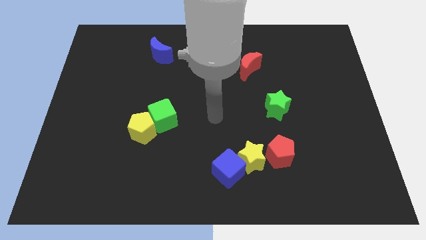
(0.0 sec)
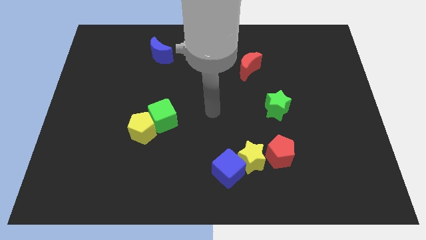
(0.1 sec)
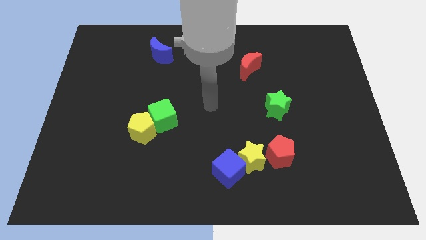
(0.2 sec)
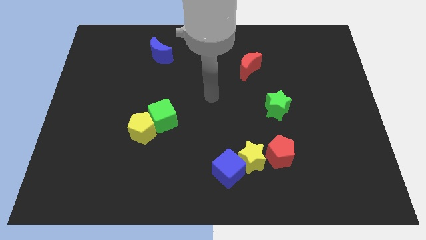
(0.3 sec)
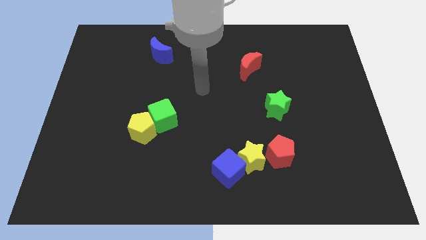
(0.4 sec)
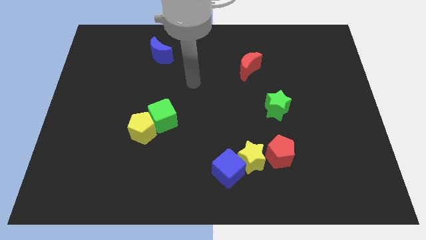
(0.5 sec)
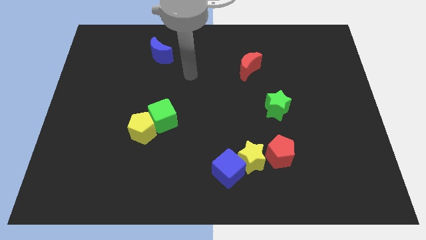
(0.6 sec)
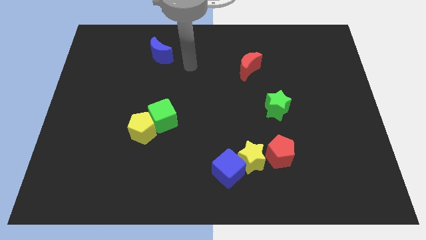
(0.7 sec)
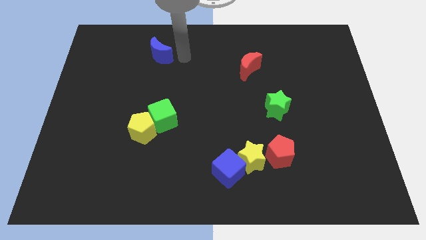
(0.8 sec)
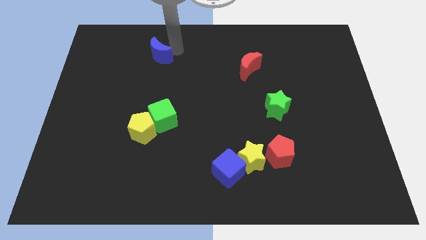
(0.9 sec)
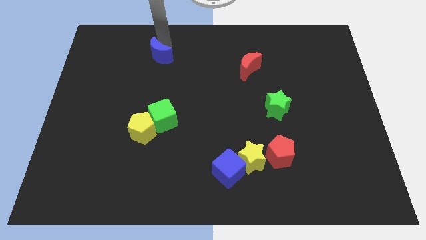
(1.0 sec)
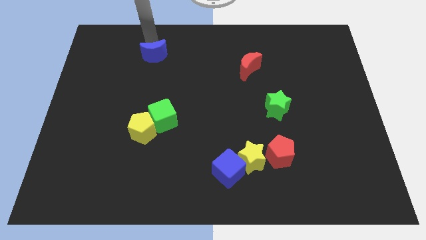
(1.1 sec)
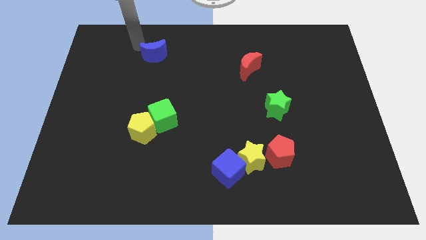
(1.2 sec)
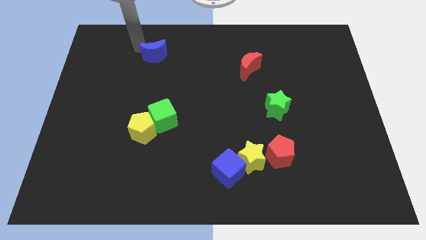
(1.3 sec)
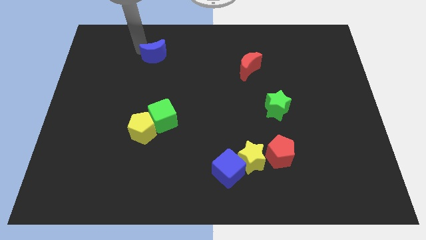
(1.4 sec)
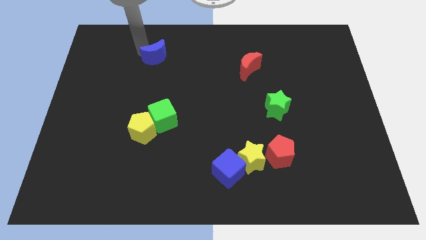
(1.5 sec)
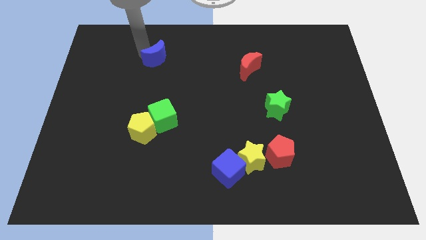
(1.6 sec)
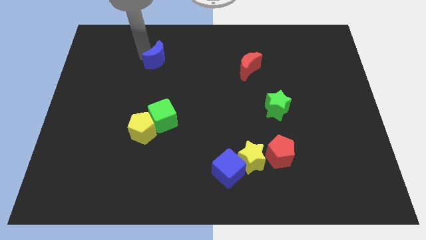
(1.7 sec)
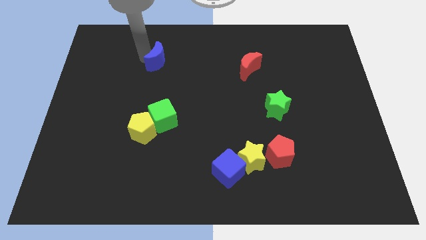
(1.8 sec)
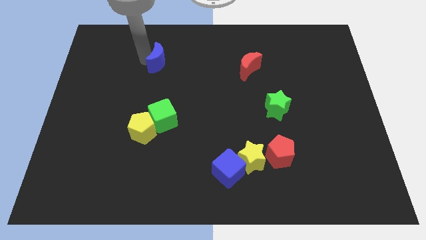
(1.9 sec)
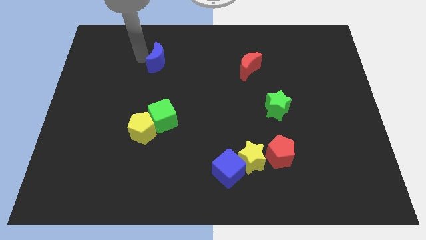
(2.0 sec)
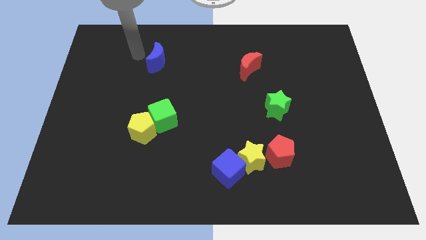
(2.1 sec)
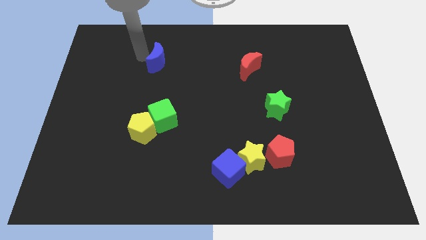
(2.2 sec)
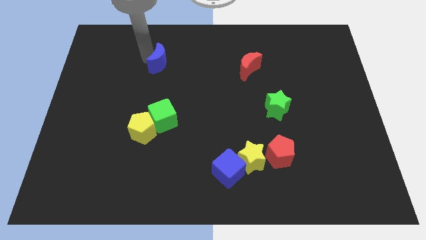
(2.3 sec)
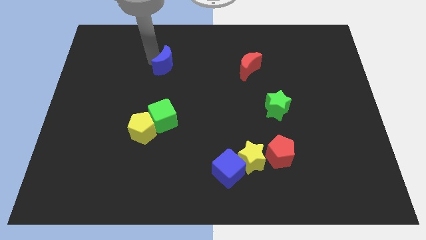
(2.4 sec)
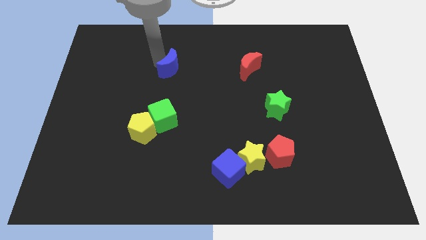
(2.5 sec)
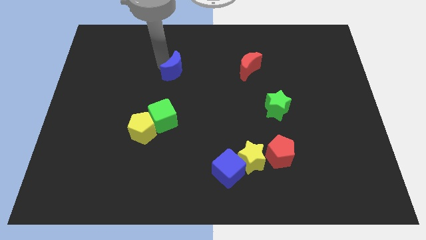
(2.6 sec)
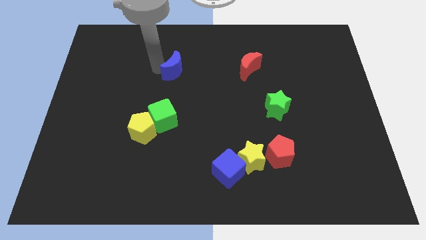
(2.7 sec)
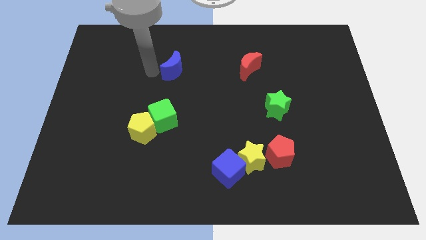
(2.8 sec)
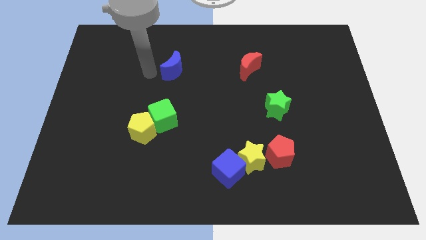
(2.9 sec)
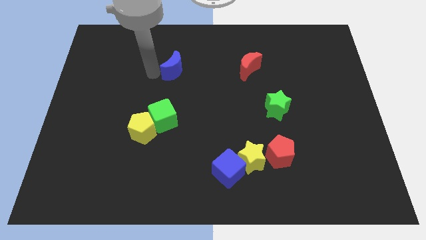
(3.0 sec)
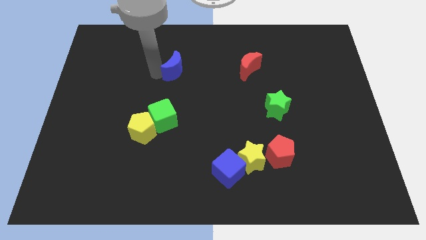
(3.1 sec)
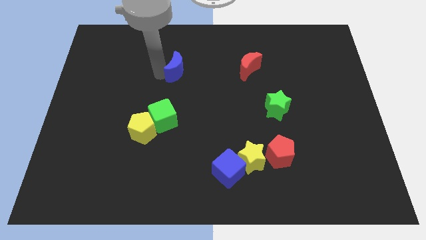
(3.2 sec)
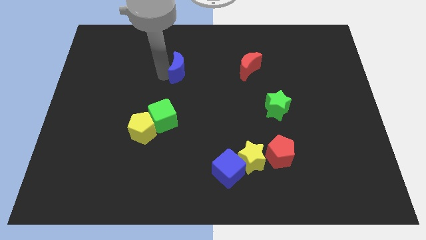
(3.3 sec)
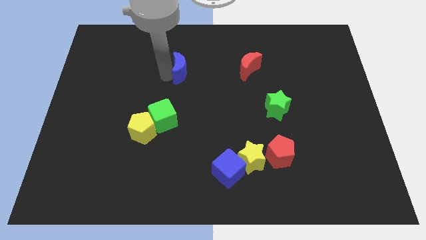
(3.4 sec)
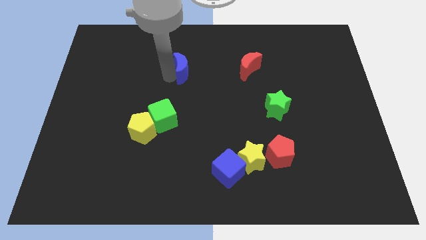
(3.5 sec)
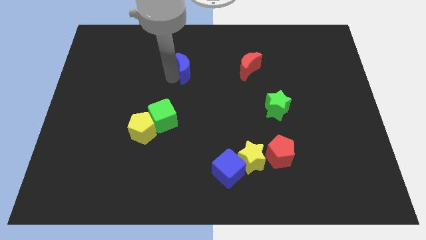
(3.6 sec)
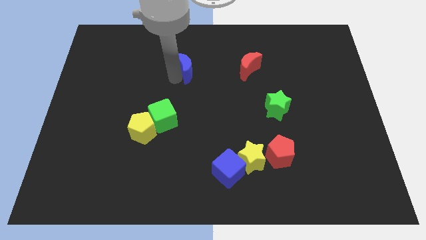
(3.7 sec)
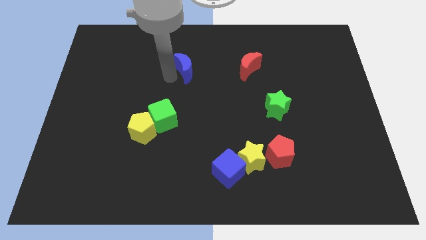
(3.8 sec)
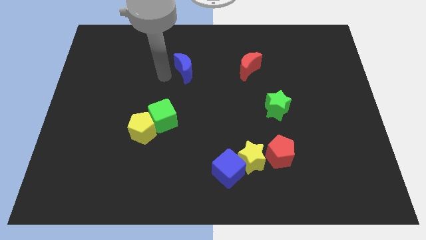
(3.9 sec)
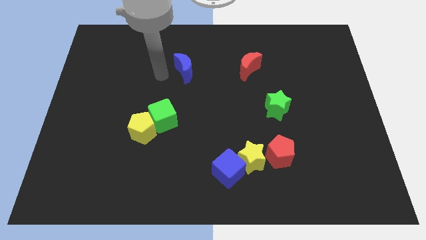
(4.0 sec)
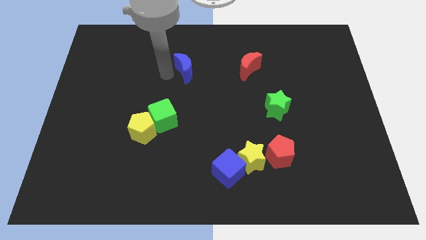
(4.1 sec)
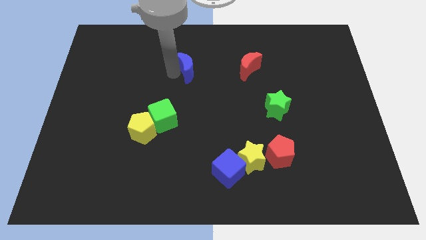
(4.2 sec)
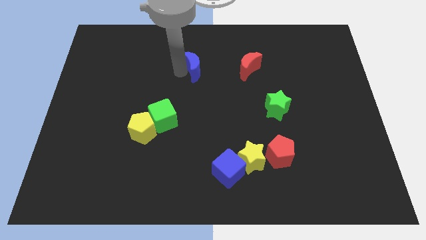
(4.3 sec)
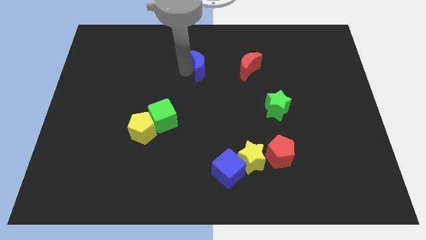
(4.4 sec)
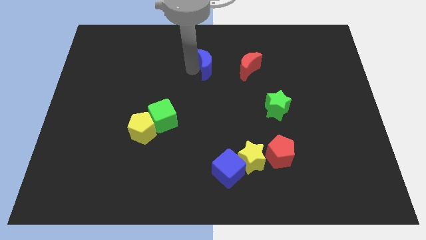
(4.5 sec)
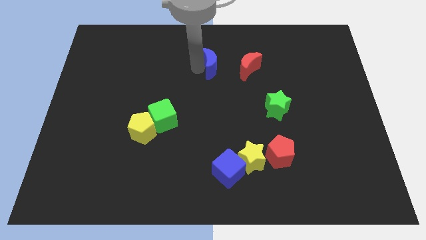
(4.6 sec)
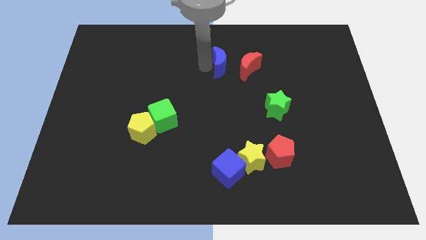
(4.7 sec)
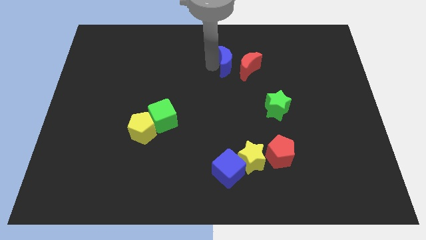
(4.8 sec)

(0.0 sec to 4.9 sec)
move the blue moon close to the red moon

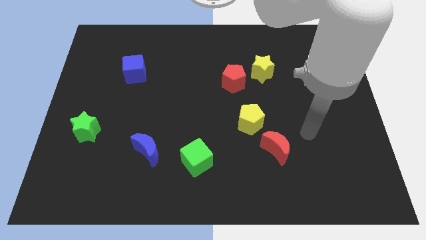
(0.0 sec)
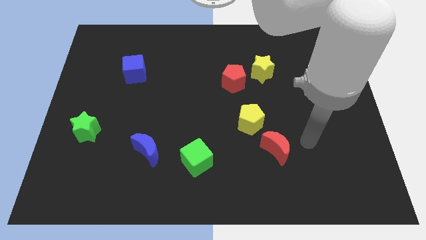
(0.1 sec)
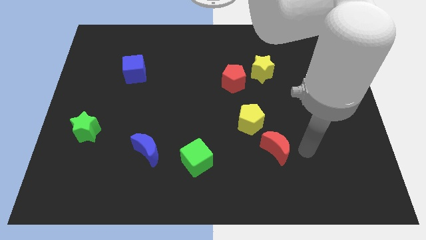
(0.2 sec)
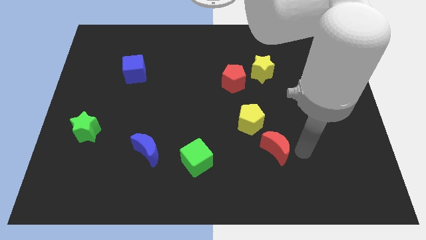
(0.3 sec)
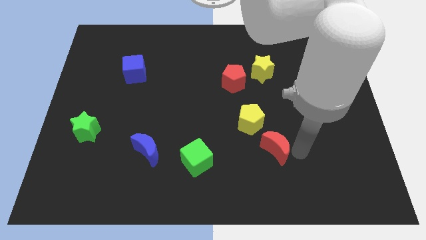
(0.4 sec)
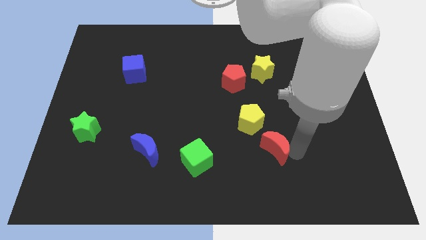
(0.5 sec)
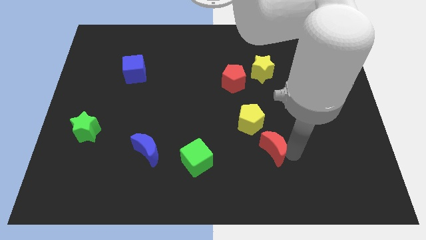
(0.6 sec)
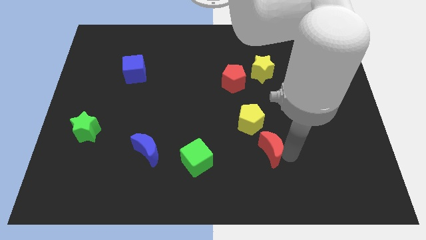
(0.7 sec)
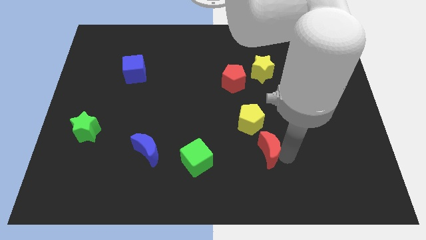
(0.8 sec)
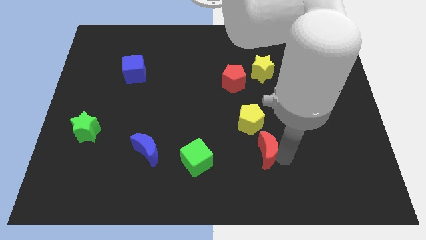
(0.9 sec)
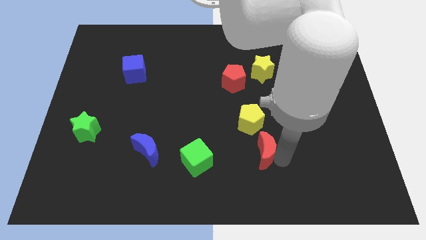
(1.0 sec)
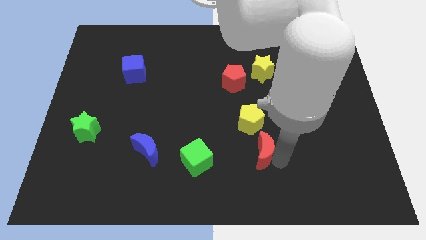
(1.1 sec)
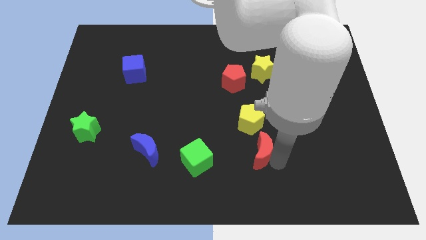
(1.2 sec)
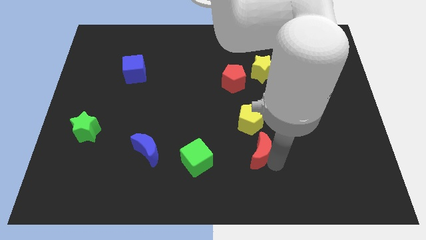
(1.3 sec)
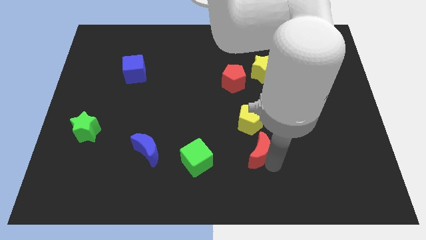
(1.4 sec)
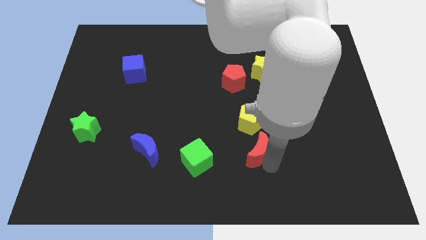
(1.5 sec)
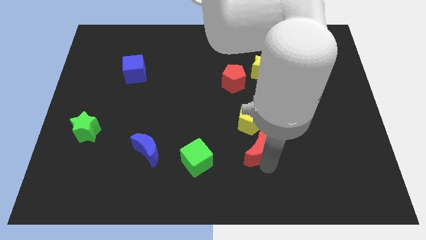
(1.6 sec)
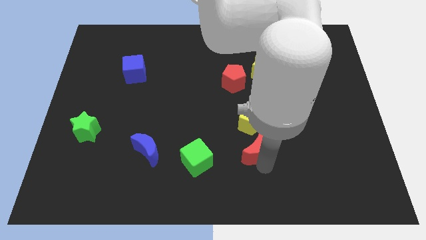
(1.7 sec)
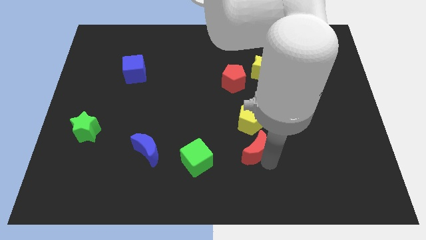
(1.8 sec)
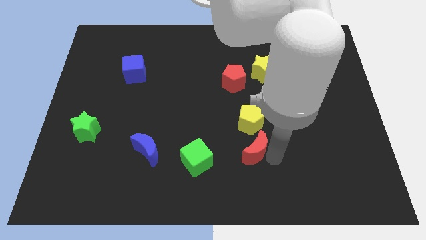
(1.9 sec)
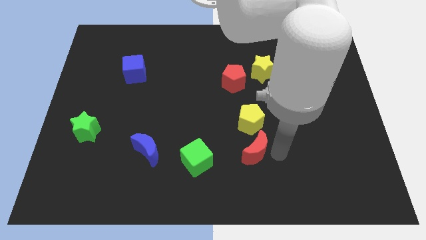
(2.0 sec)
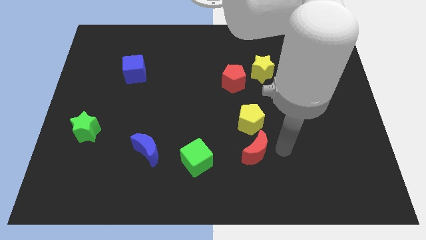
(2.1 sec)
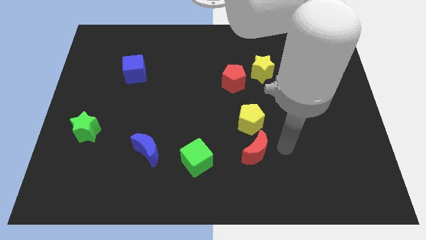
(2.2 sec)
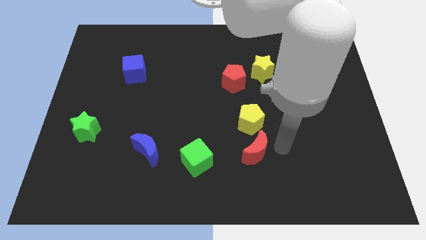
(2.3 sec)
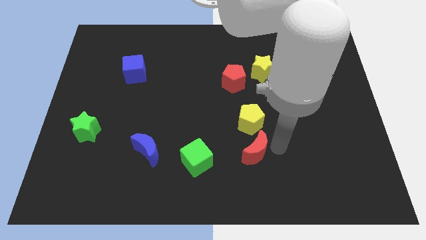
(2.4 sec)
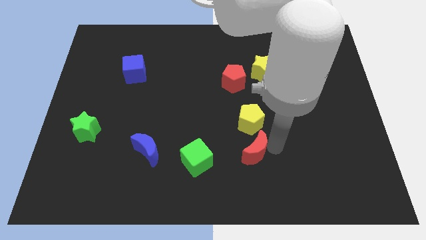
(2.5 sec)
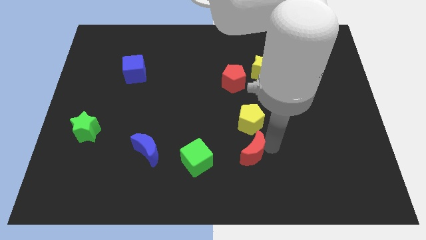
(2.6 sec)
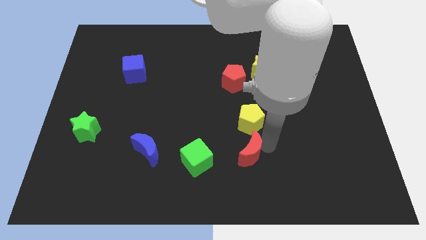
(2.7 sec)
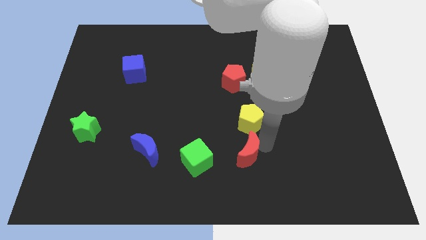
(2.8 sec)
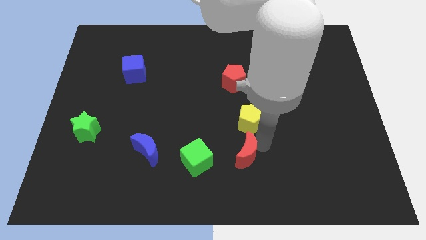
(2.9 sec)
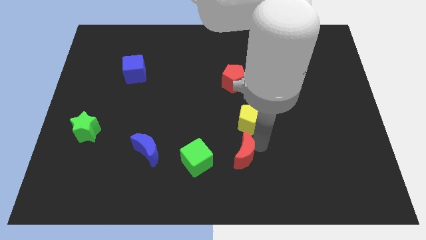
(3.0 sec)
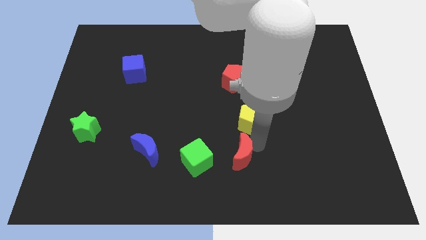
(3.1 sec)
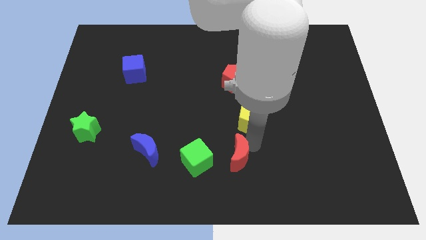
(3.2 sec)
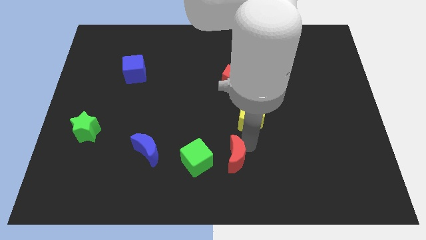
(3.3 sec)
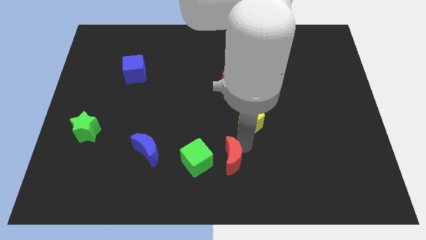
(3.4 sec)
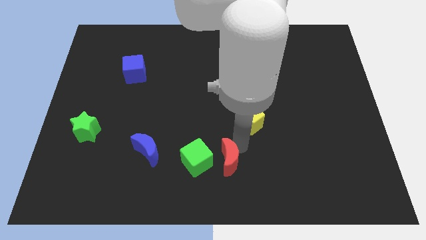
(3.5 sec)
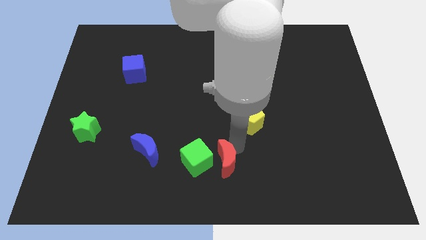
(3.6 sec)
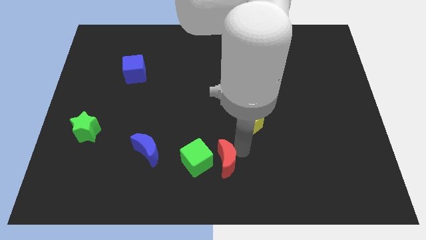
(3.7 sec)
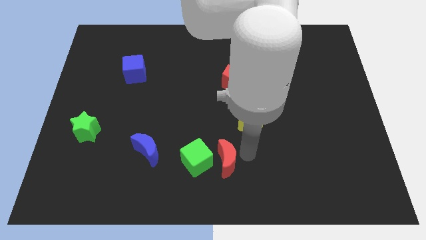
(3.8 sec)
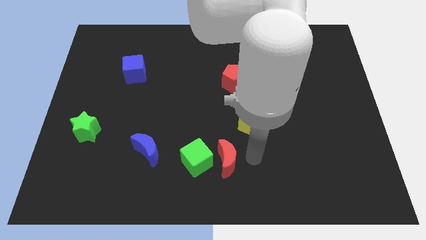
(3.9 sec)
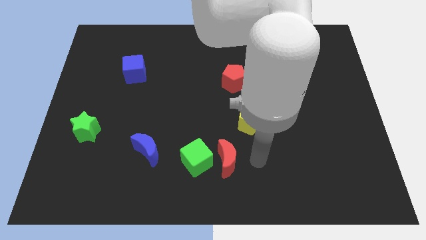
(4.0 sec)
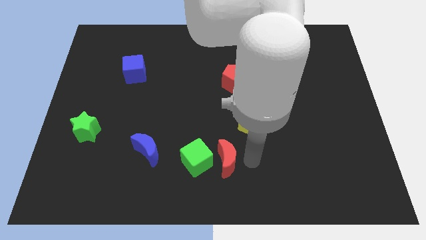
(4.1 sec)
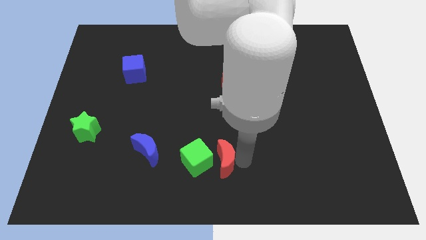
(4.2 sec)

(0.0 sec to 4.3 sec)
move the red moon to the green cube
